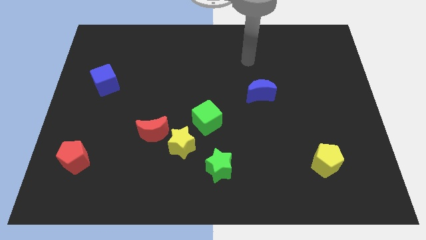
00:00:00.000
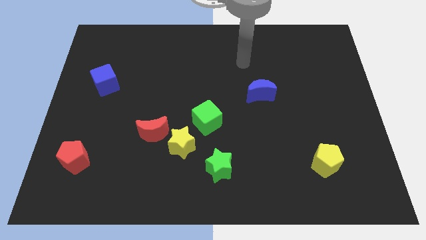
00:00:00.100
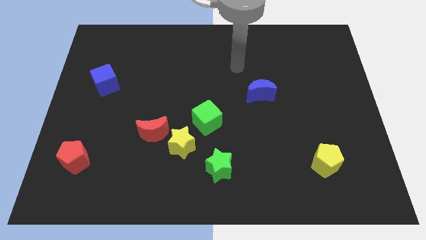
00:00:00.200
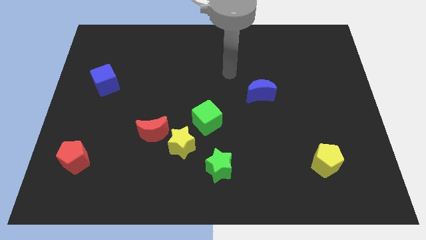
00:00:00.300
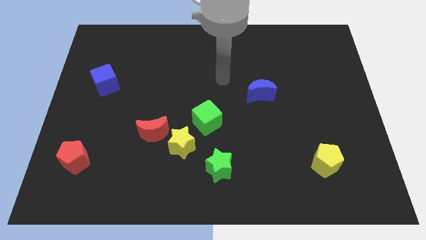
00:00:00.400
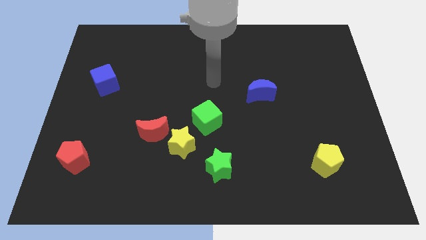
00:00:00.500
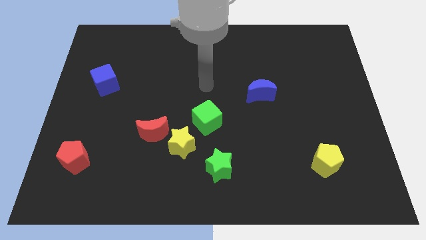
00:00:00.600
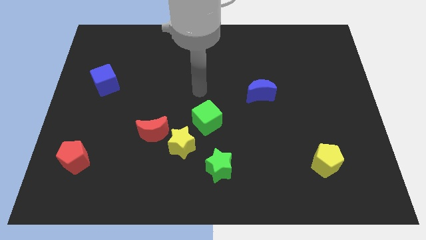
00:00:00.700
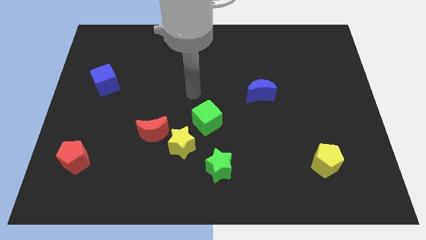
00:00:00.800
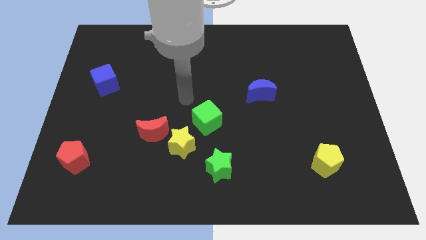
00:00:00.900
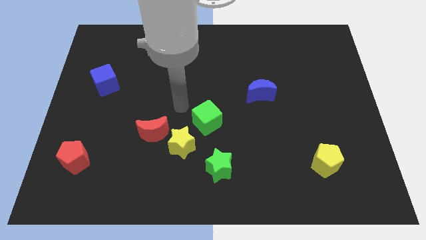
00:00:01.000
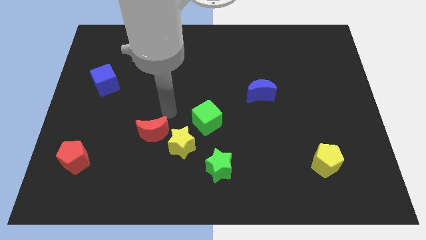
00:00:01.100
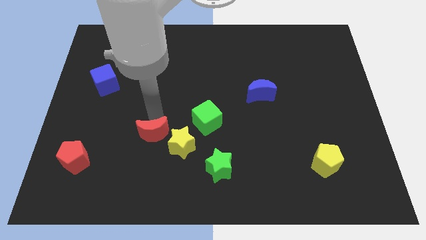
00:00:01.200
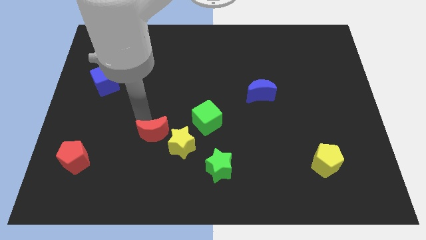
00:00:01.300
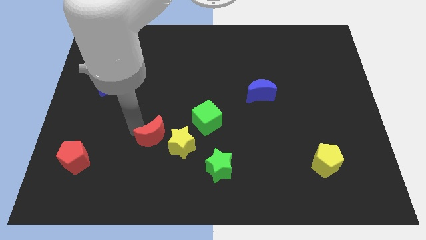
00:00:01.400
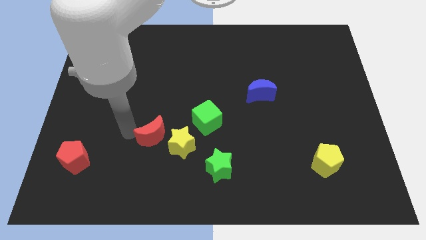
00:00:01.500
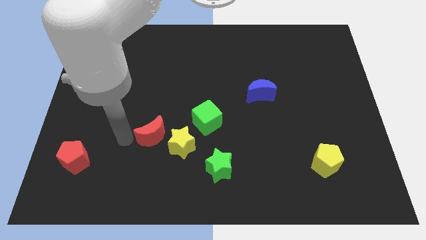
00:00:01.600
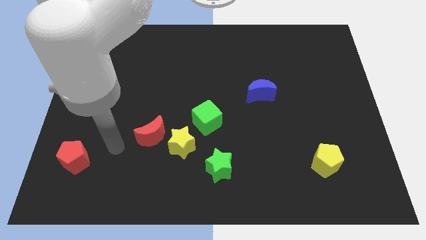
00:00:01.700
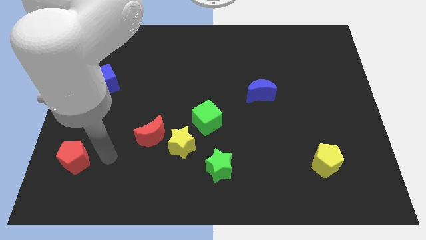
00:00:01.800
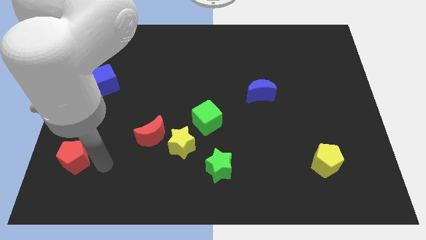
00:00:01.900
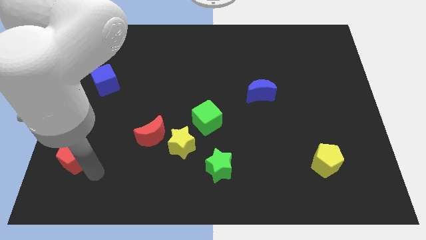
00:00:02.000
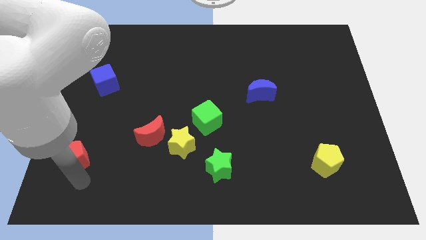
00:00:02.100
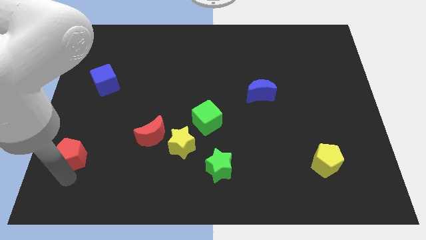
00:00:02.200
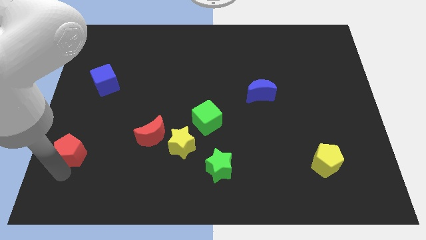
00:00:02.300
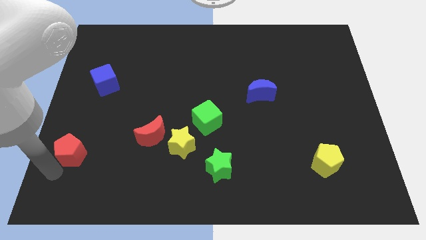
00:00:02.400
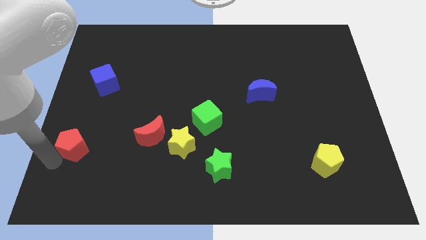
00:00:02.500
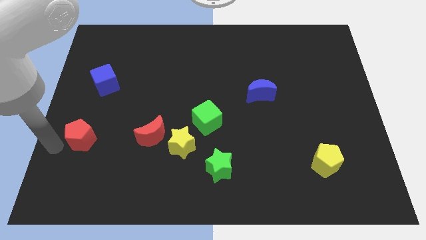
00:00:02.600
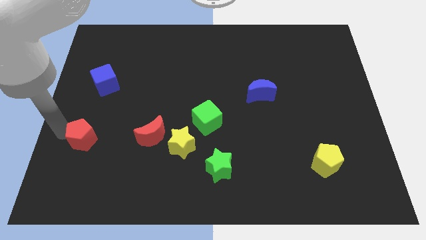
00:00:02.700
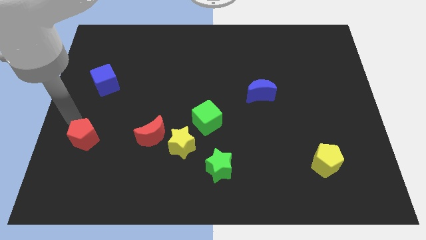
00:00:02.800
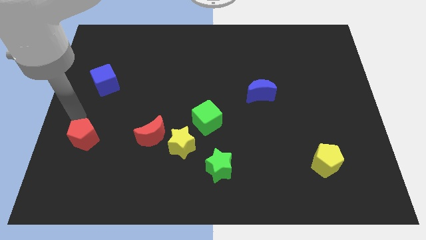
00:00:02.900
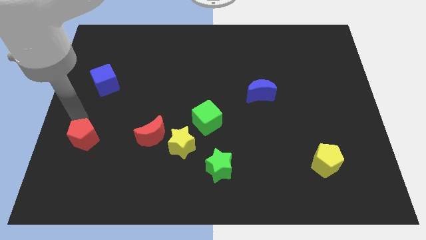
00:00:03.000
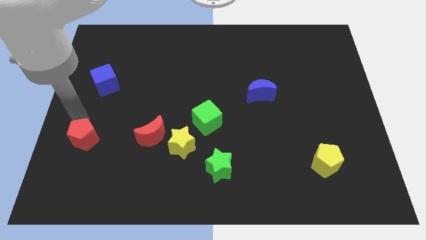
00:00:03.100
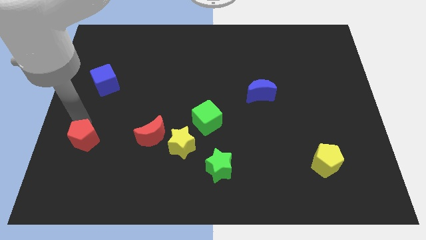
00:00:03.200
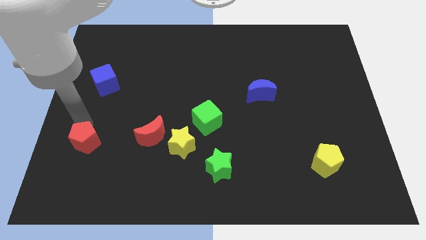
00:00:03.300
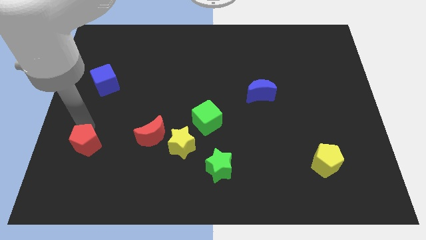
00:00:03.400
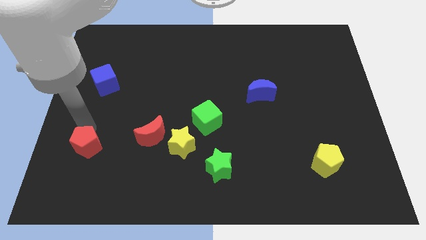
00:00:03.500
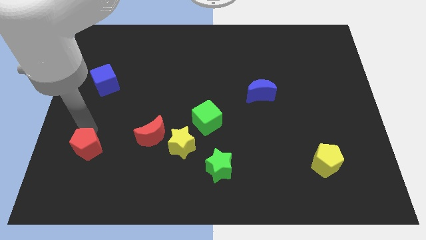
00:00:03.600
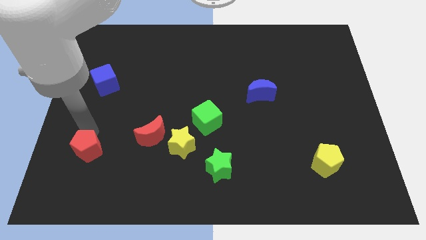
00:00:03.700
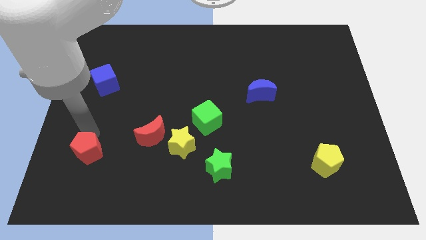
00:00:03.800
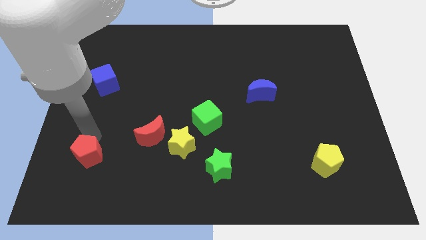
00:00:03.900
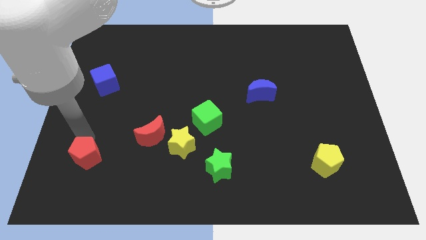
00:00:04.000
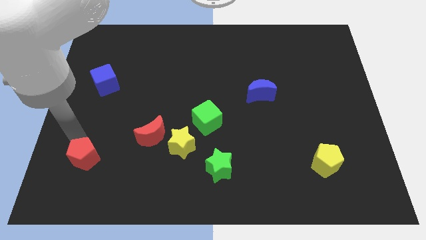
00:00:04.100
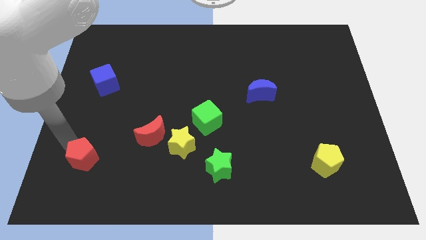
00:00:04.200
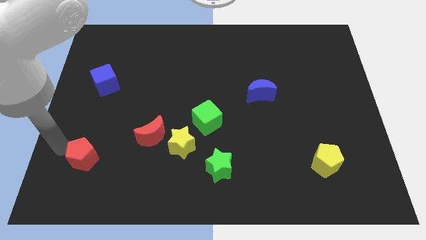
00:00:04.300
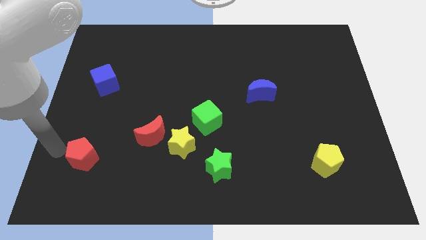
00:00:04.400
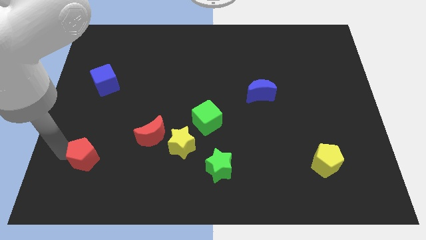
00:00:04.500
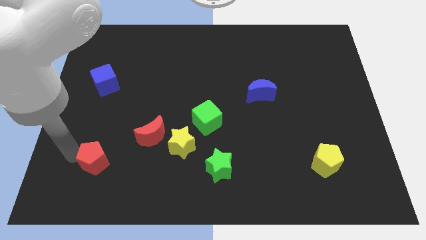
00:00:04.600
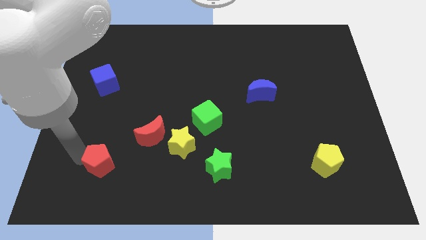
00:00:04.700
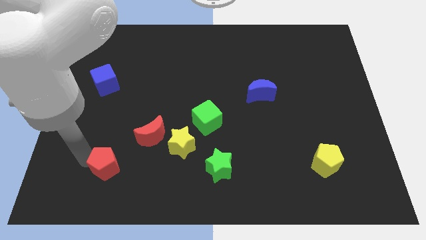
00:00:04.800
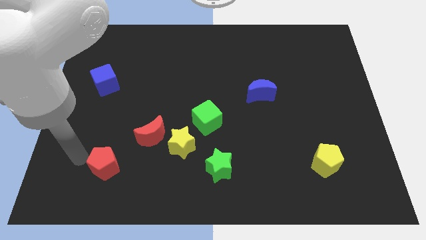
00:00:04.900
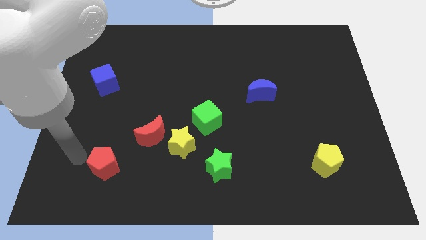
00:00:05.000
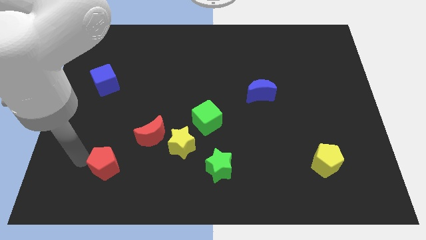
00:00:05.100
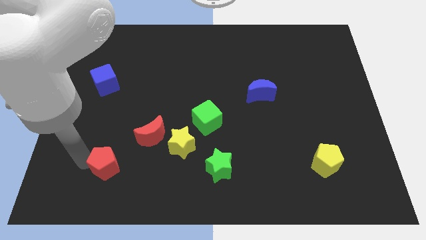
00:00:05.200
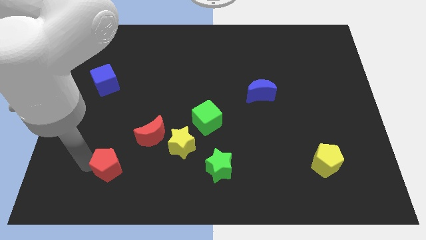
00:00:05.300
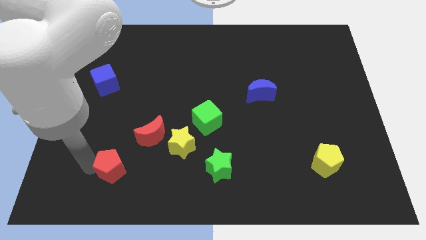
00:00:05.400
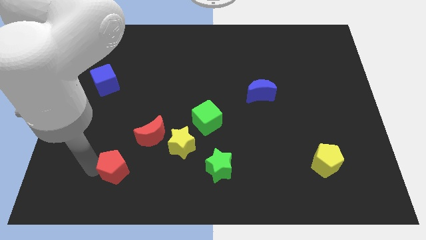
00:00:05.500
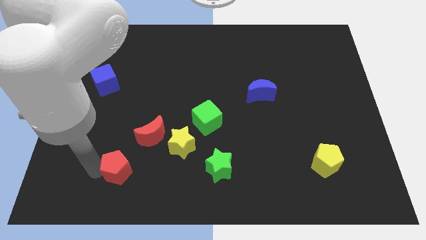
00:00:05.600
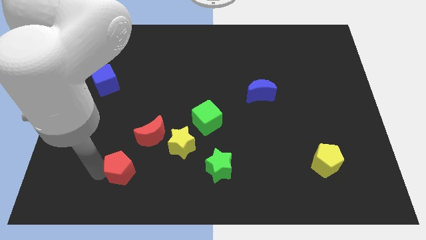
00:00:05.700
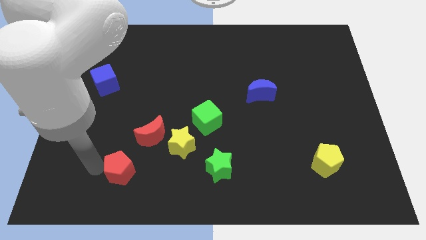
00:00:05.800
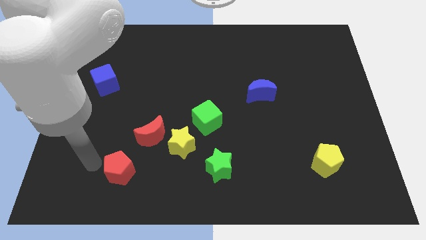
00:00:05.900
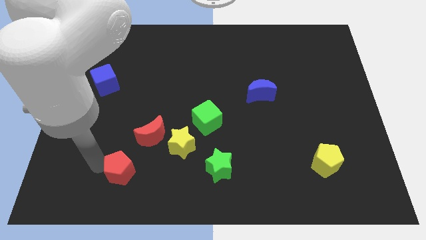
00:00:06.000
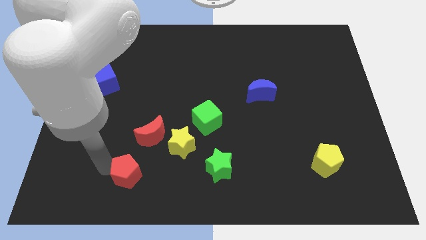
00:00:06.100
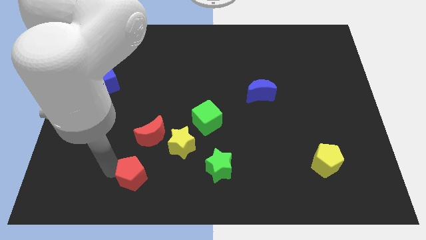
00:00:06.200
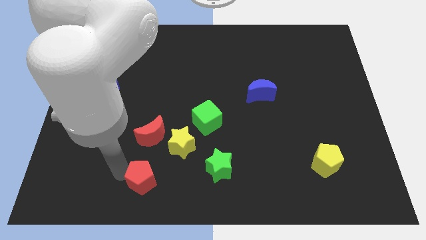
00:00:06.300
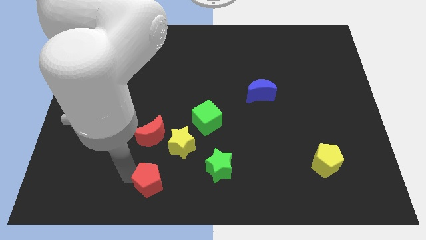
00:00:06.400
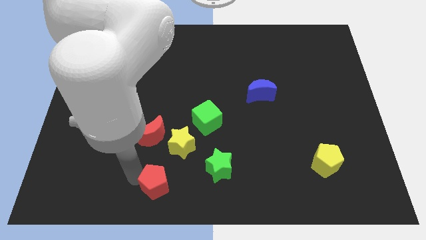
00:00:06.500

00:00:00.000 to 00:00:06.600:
put the red pentagon to the bottom

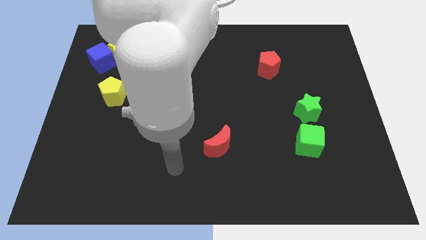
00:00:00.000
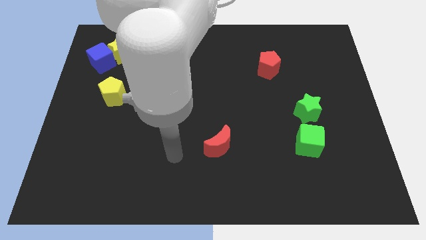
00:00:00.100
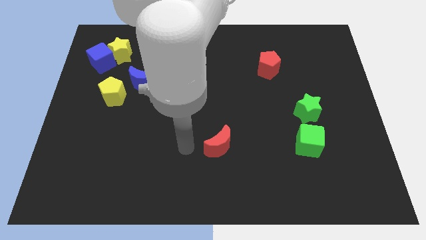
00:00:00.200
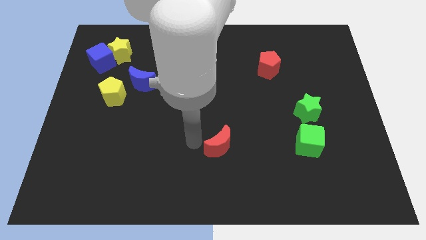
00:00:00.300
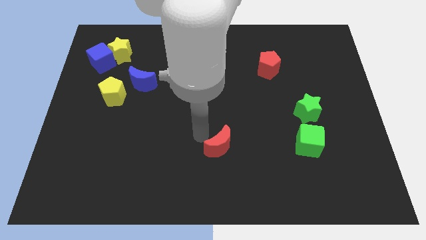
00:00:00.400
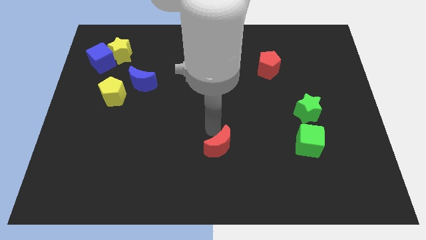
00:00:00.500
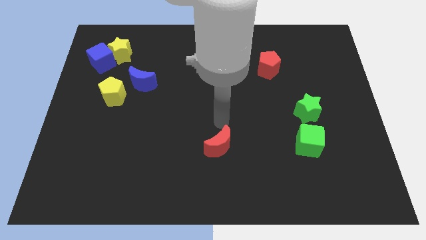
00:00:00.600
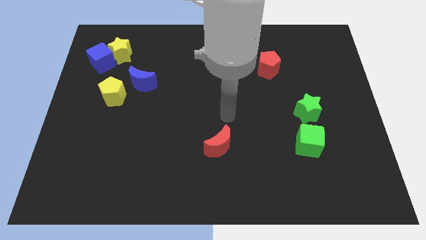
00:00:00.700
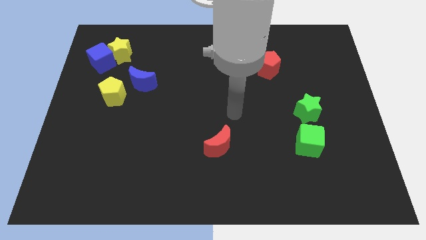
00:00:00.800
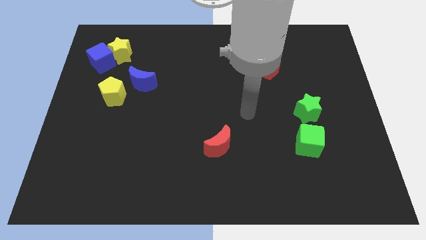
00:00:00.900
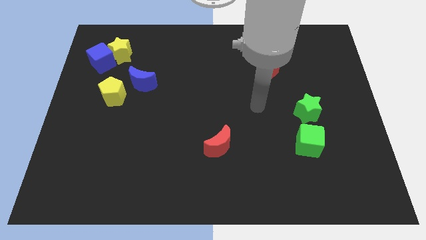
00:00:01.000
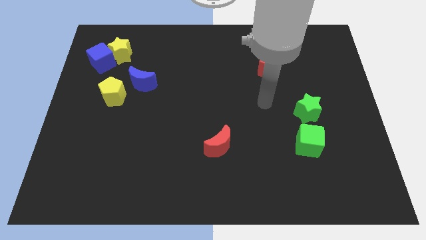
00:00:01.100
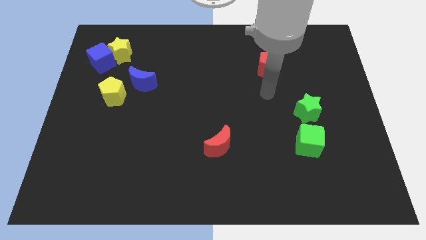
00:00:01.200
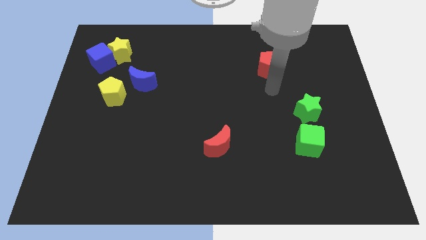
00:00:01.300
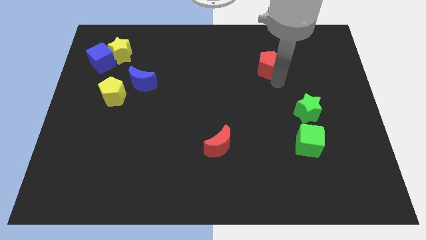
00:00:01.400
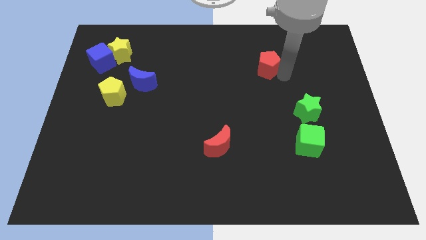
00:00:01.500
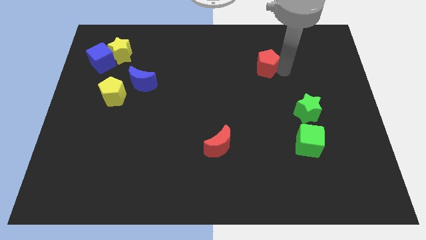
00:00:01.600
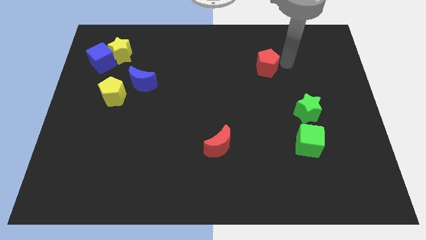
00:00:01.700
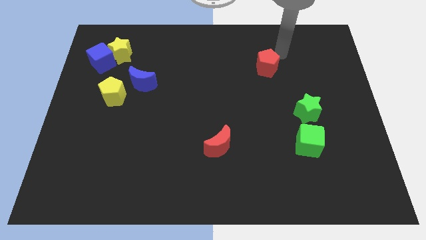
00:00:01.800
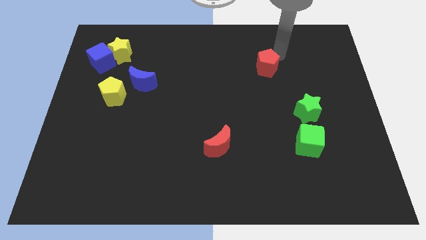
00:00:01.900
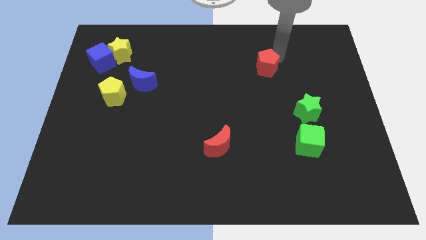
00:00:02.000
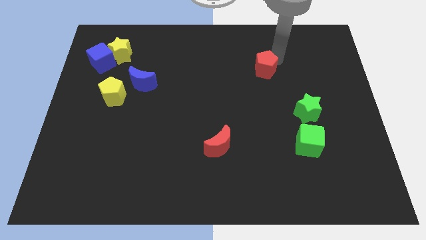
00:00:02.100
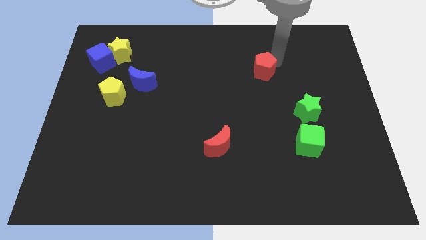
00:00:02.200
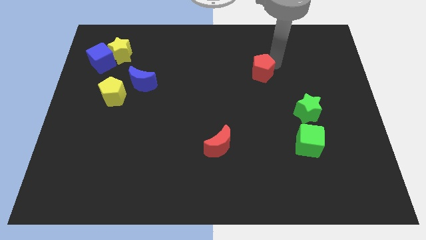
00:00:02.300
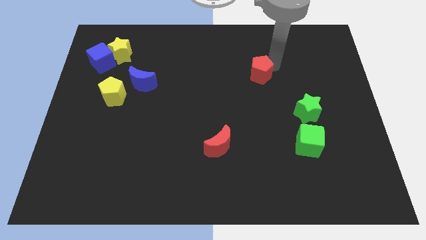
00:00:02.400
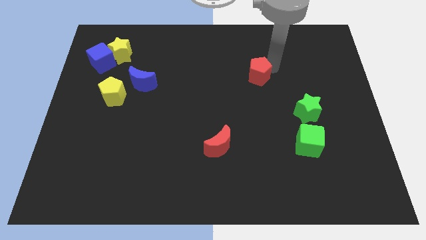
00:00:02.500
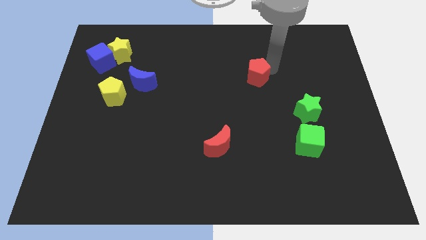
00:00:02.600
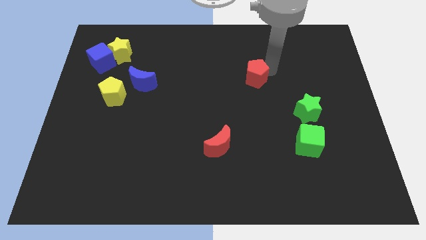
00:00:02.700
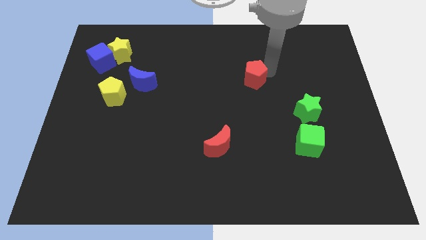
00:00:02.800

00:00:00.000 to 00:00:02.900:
slide the red pentagon to the center
